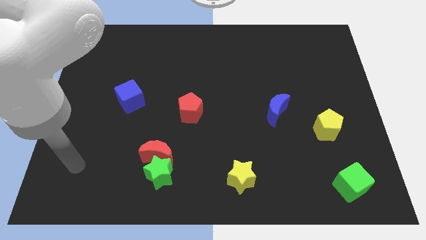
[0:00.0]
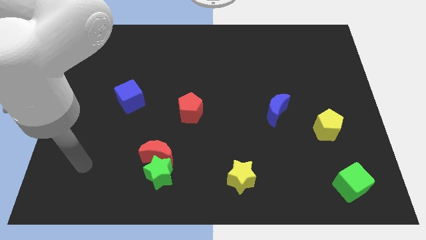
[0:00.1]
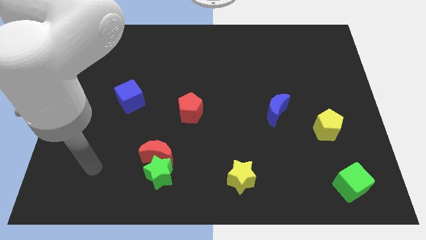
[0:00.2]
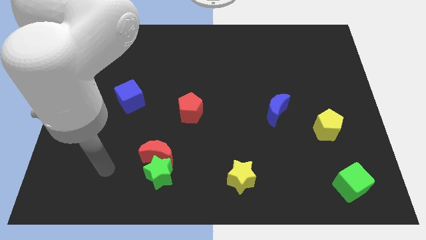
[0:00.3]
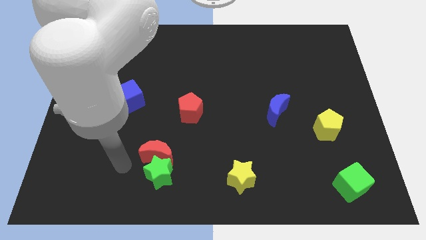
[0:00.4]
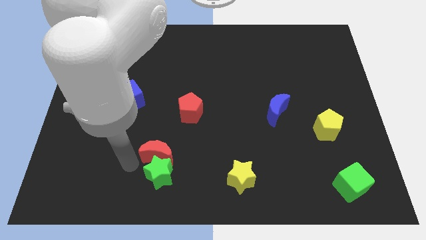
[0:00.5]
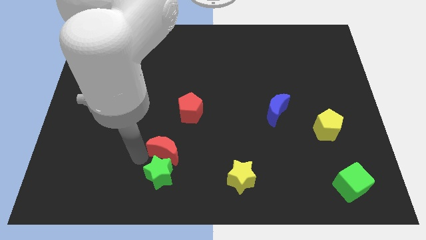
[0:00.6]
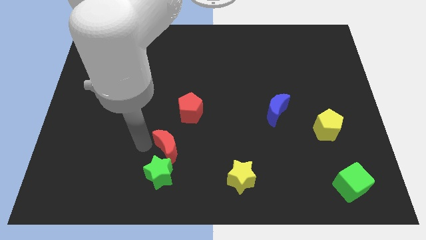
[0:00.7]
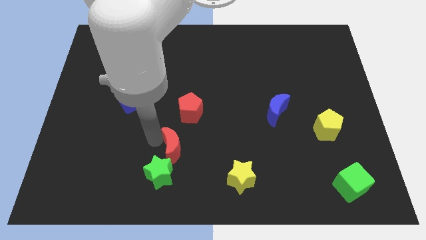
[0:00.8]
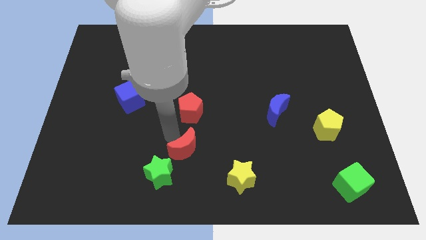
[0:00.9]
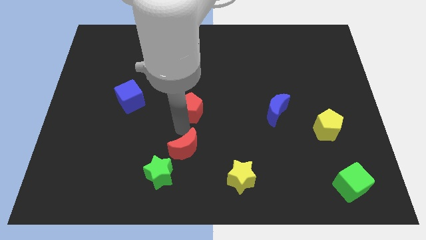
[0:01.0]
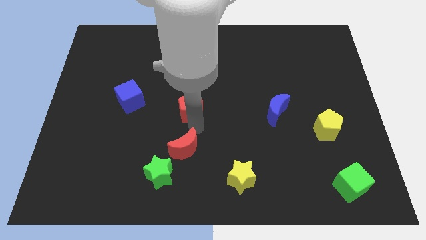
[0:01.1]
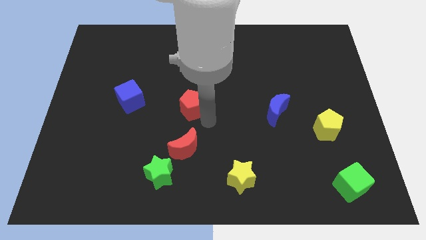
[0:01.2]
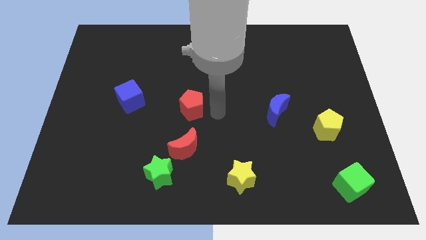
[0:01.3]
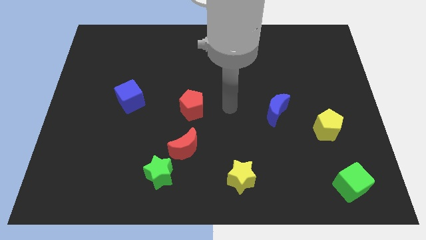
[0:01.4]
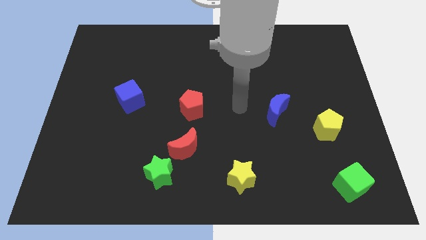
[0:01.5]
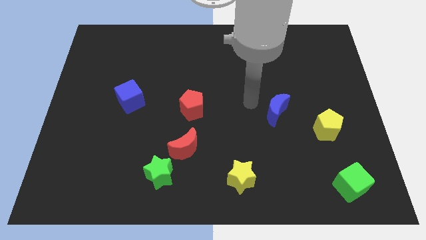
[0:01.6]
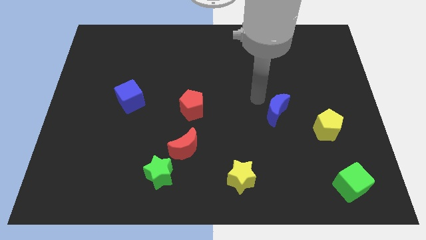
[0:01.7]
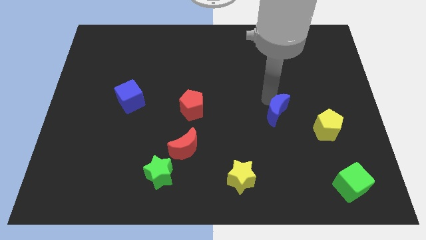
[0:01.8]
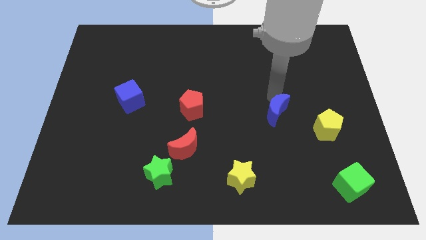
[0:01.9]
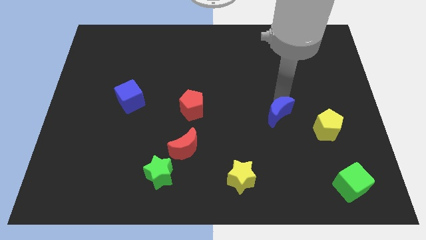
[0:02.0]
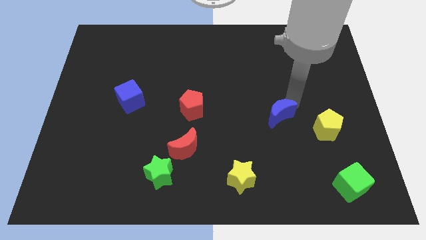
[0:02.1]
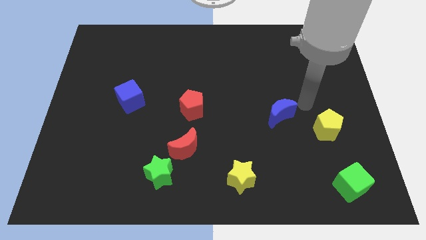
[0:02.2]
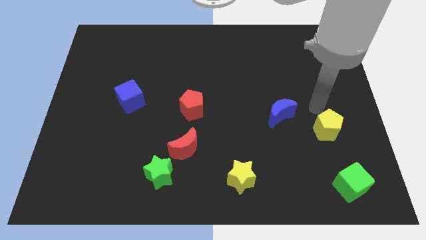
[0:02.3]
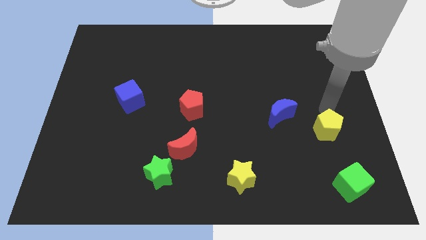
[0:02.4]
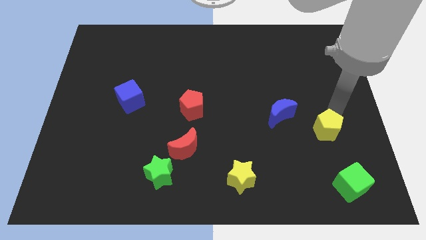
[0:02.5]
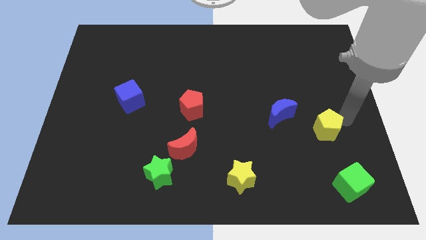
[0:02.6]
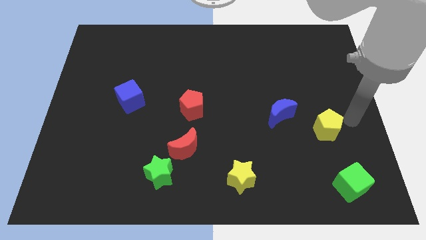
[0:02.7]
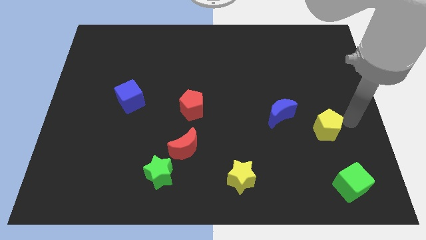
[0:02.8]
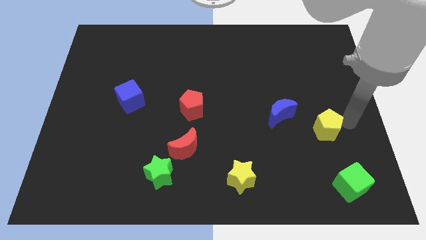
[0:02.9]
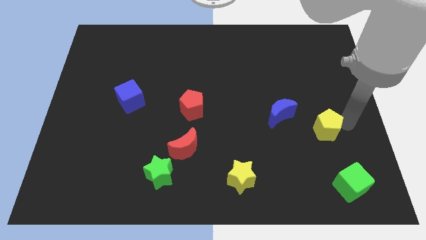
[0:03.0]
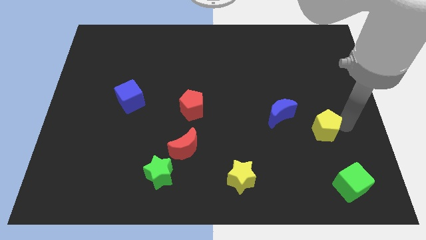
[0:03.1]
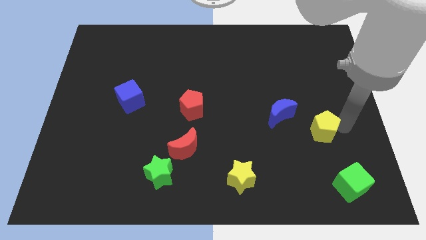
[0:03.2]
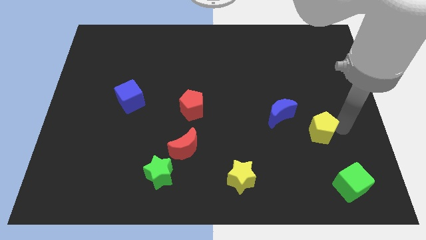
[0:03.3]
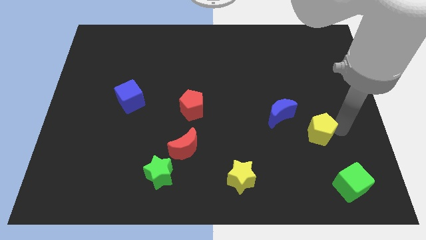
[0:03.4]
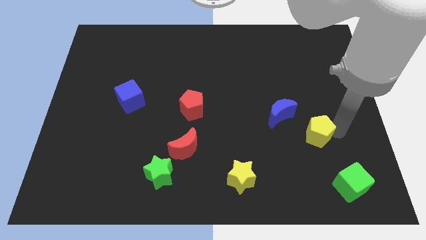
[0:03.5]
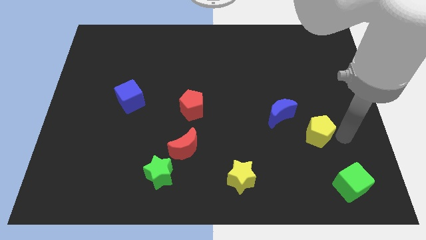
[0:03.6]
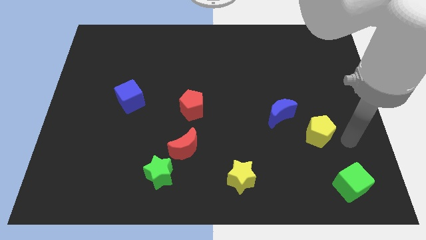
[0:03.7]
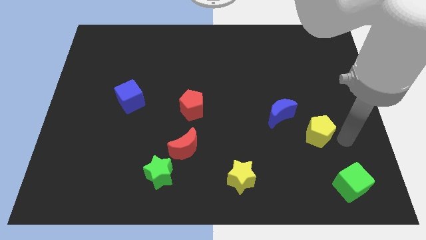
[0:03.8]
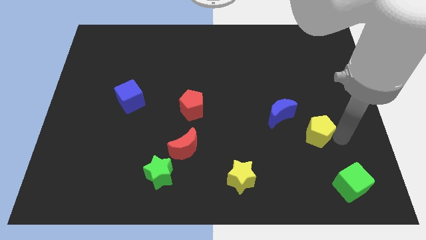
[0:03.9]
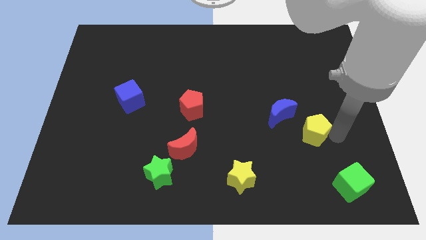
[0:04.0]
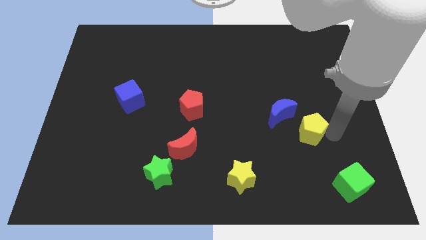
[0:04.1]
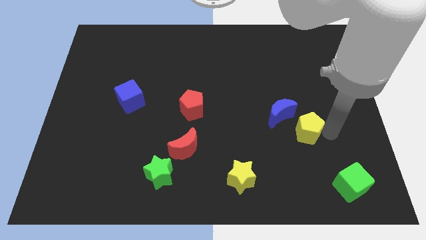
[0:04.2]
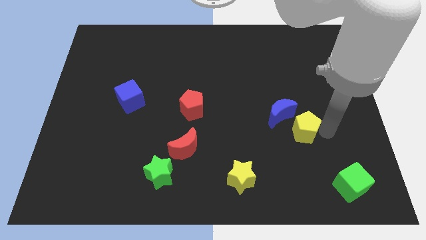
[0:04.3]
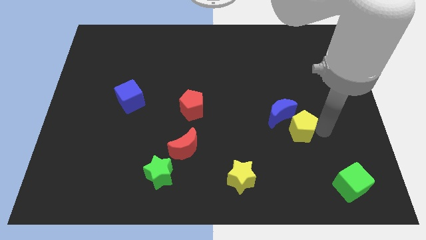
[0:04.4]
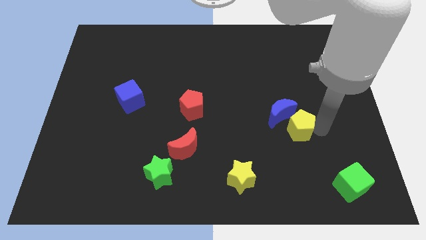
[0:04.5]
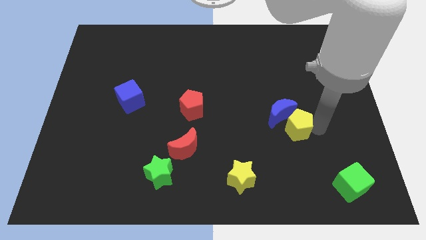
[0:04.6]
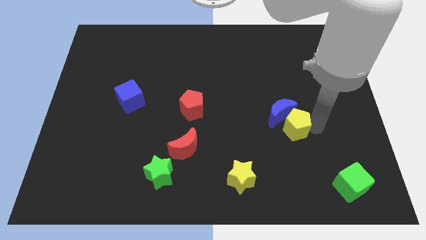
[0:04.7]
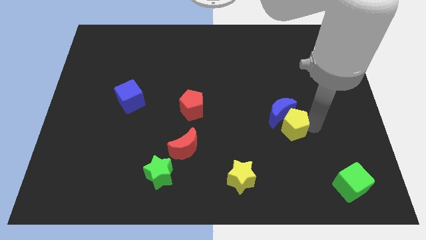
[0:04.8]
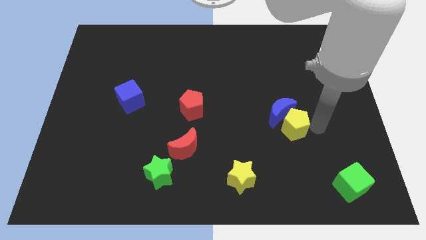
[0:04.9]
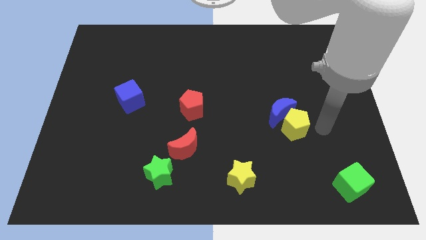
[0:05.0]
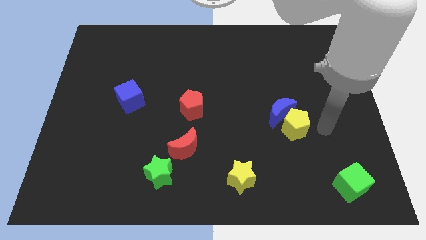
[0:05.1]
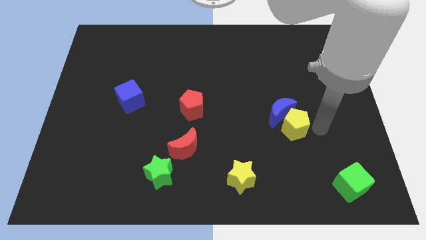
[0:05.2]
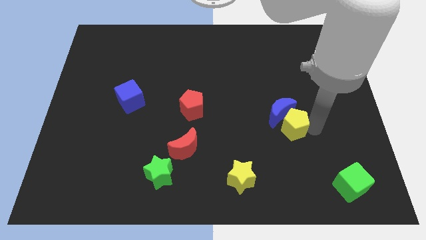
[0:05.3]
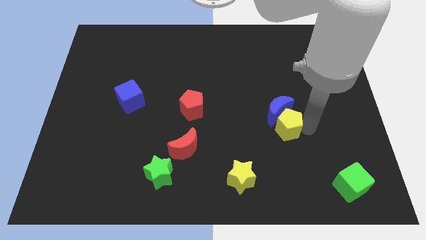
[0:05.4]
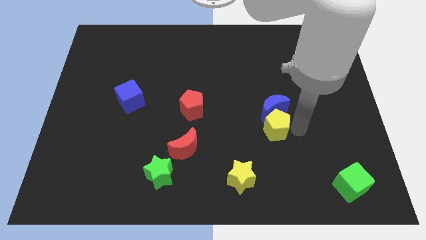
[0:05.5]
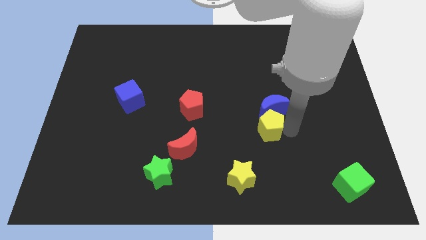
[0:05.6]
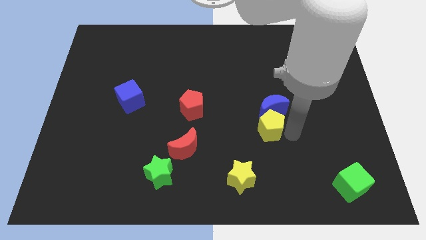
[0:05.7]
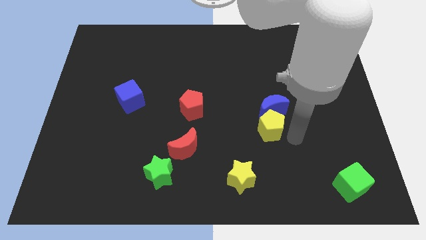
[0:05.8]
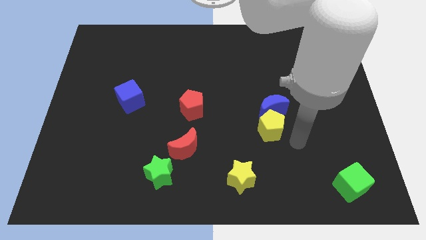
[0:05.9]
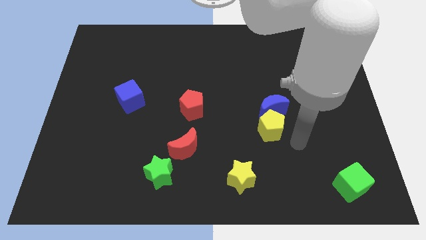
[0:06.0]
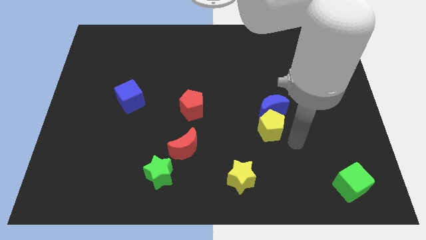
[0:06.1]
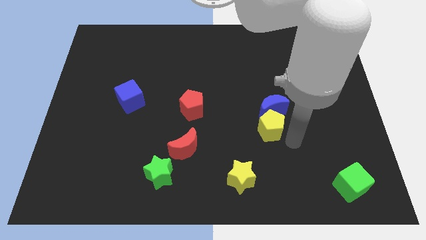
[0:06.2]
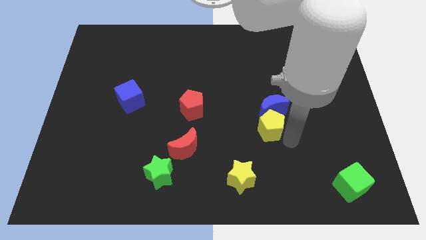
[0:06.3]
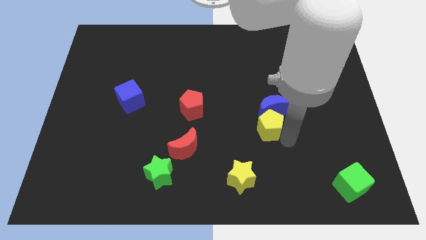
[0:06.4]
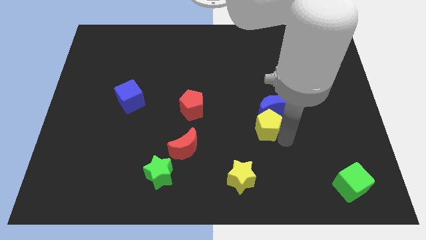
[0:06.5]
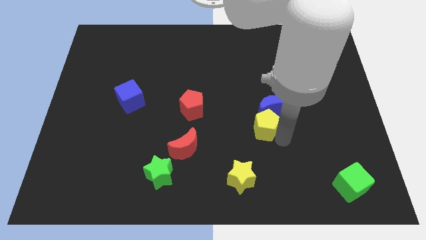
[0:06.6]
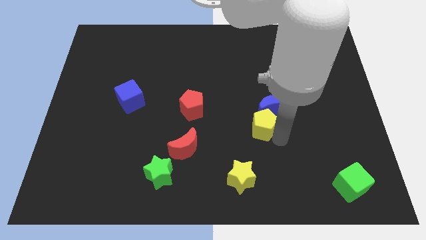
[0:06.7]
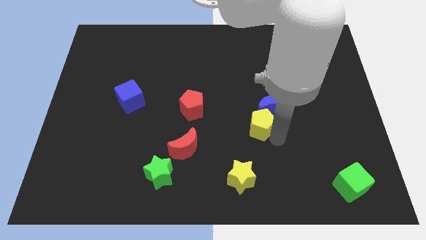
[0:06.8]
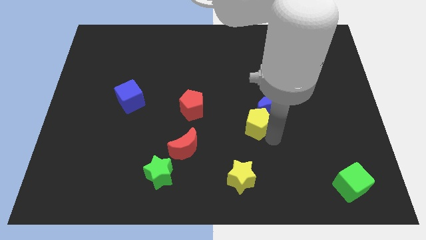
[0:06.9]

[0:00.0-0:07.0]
move the yellow pentagon to the middle of the board
